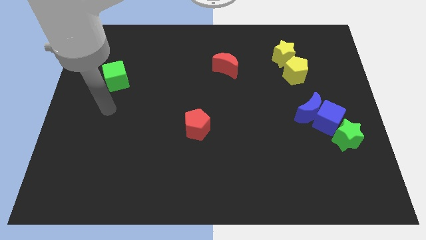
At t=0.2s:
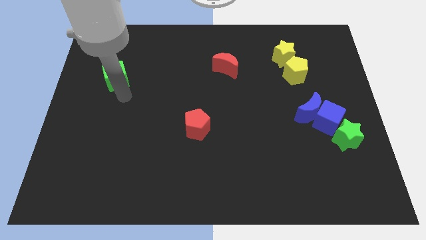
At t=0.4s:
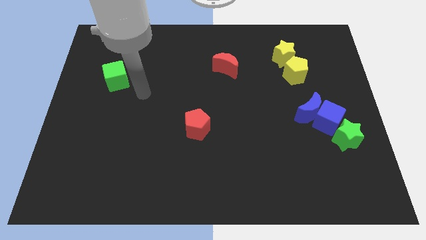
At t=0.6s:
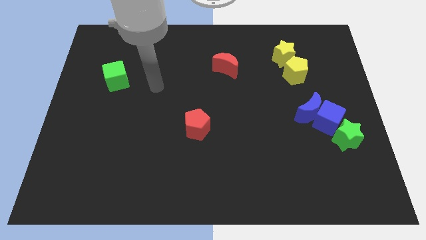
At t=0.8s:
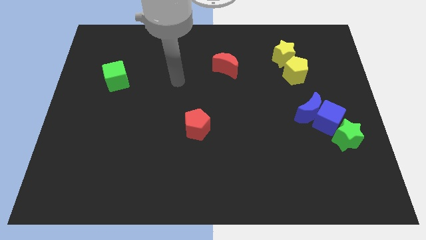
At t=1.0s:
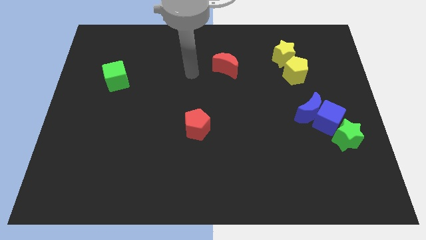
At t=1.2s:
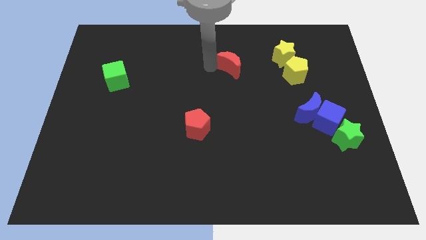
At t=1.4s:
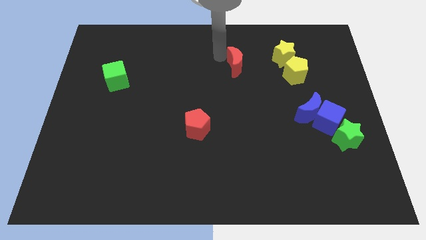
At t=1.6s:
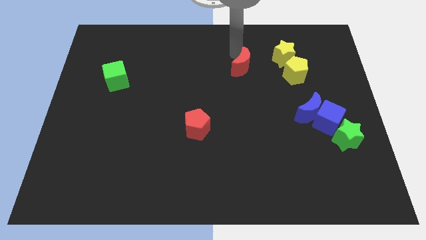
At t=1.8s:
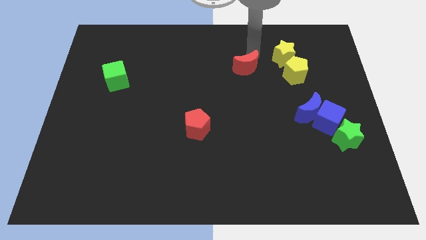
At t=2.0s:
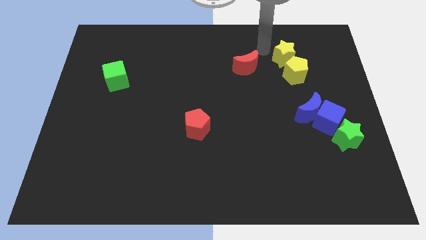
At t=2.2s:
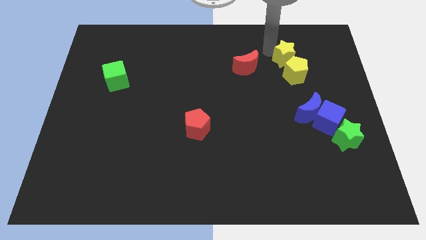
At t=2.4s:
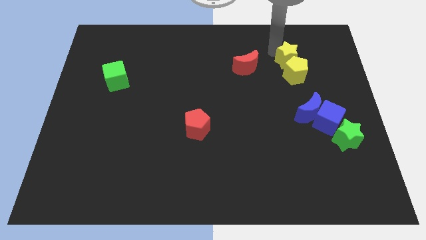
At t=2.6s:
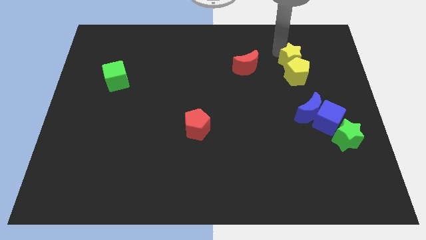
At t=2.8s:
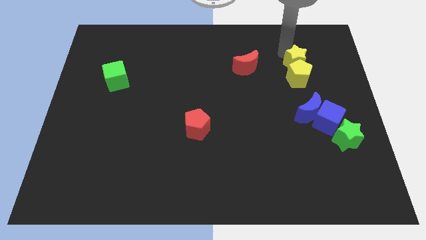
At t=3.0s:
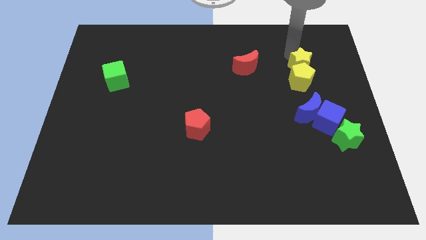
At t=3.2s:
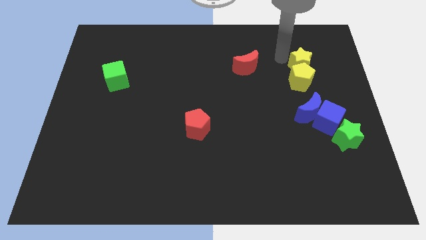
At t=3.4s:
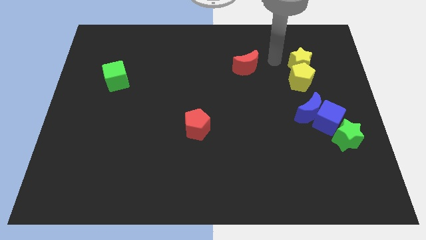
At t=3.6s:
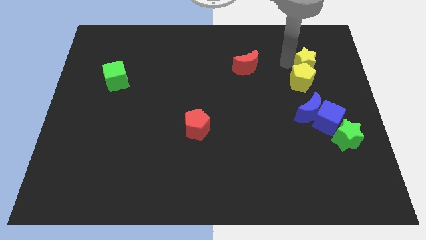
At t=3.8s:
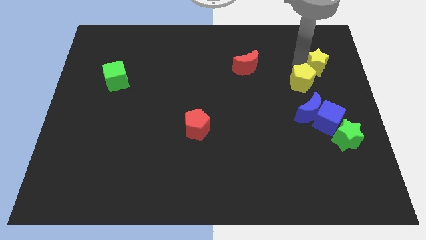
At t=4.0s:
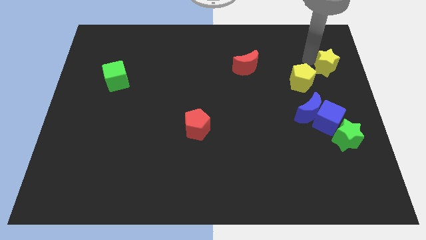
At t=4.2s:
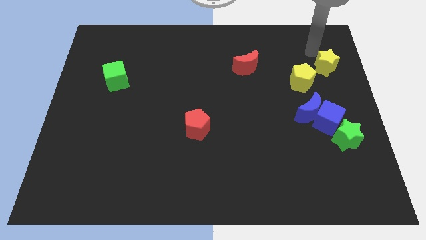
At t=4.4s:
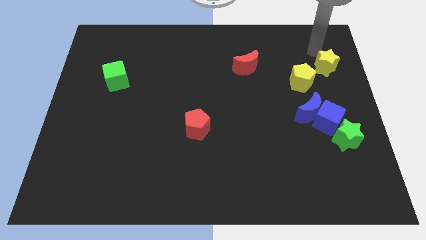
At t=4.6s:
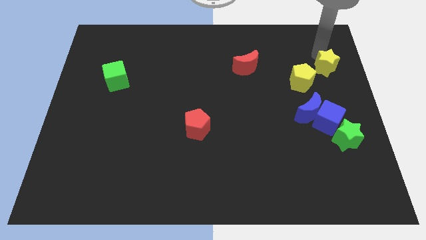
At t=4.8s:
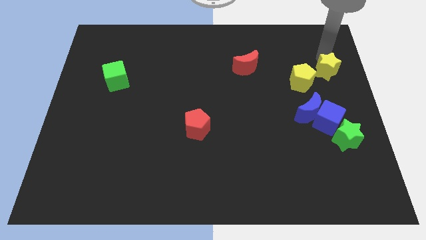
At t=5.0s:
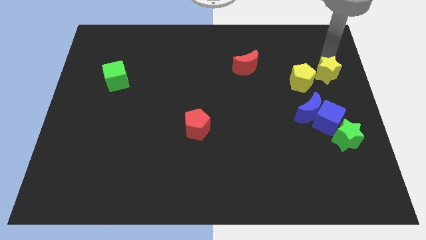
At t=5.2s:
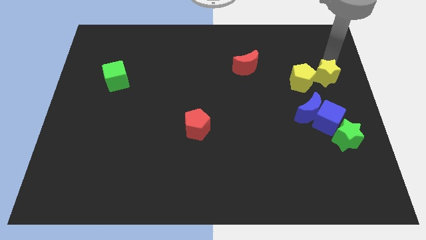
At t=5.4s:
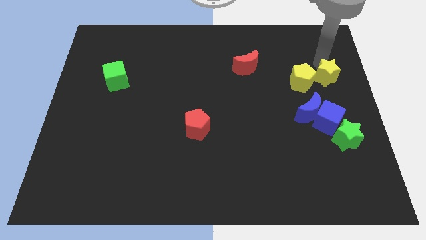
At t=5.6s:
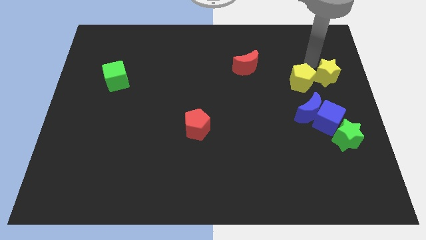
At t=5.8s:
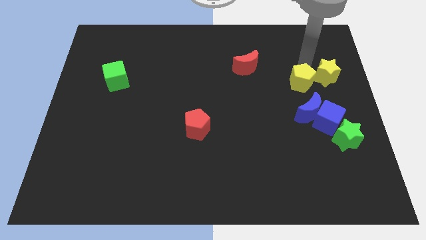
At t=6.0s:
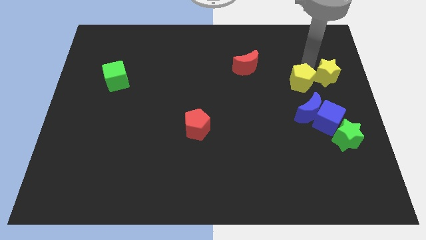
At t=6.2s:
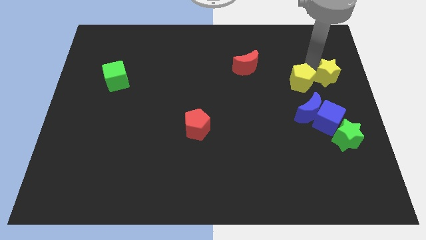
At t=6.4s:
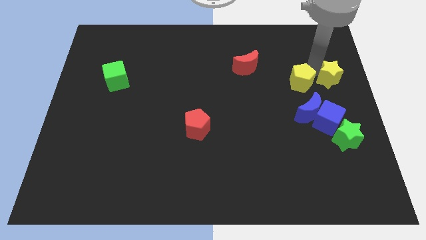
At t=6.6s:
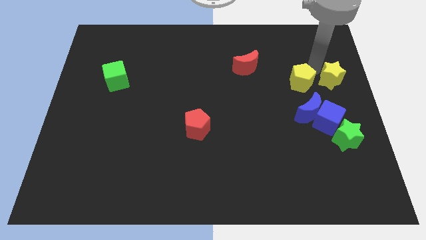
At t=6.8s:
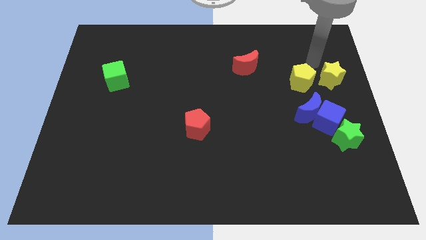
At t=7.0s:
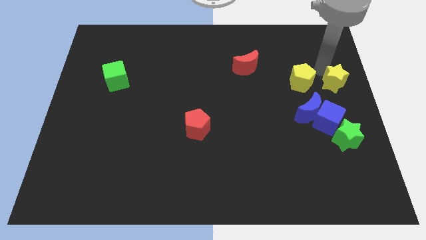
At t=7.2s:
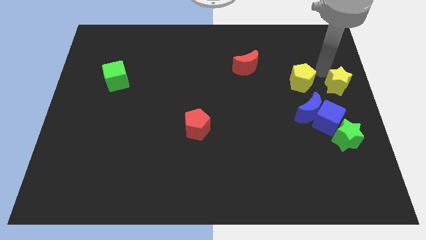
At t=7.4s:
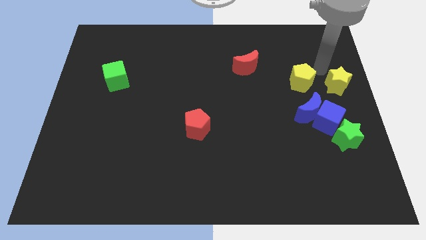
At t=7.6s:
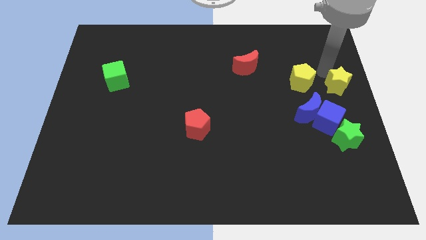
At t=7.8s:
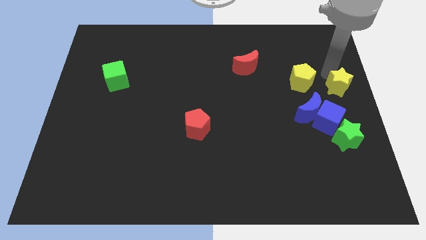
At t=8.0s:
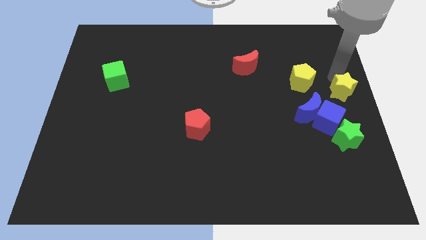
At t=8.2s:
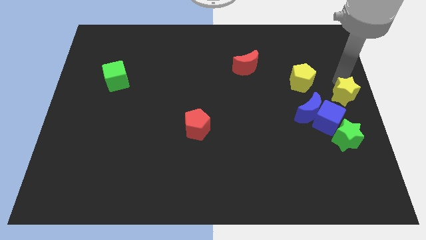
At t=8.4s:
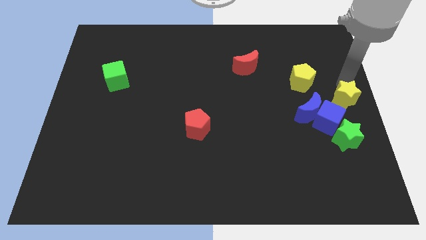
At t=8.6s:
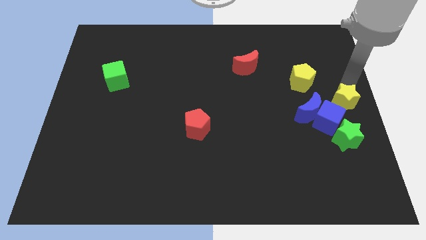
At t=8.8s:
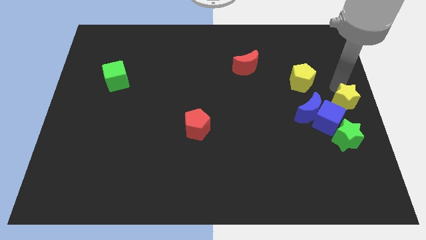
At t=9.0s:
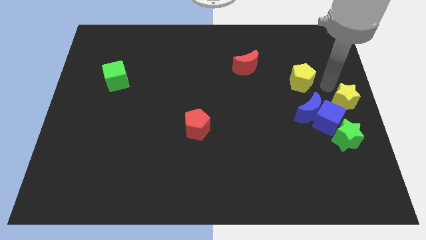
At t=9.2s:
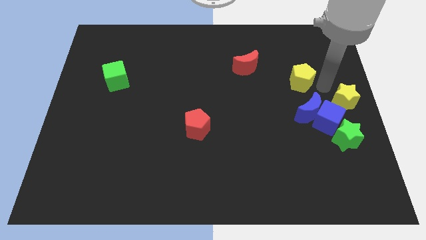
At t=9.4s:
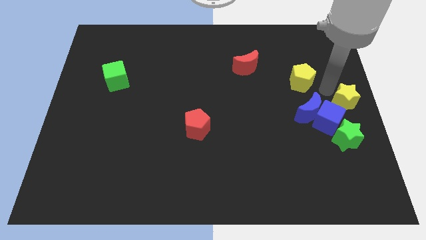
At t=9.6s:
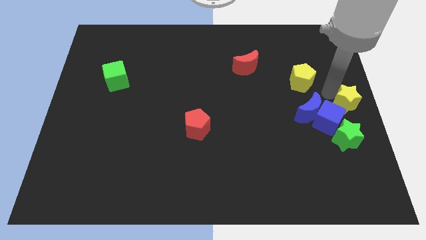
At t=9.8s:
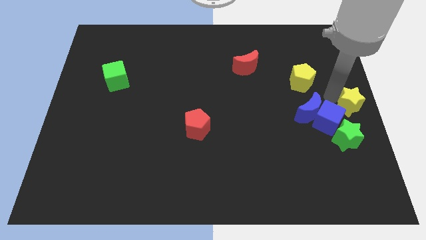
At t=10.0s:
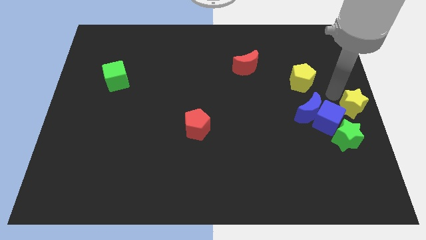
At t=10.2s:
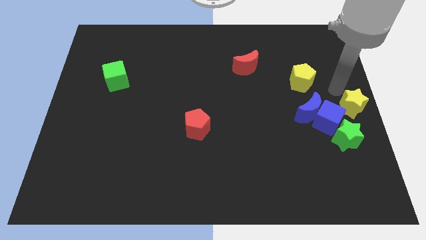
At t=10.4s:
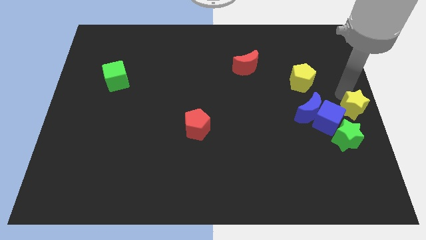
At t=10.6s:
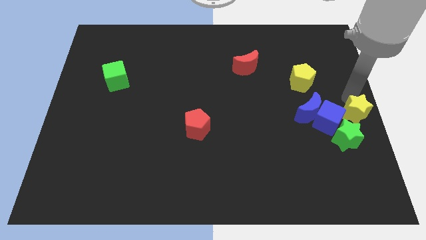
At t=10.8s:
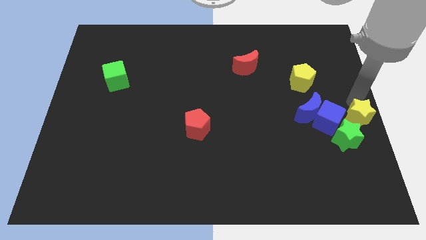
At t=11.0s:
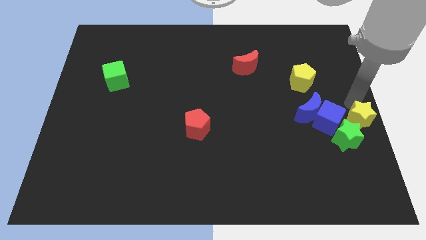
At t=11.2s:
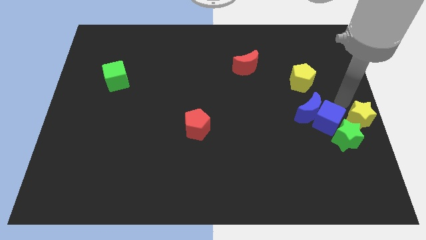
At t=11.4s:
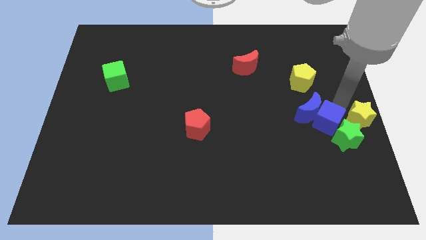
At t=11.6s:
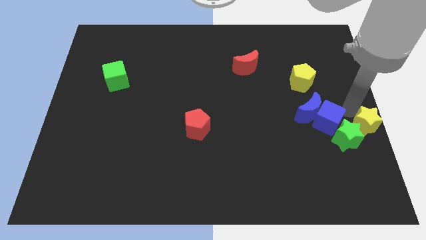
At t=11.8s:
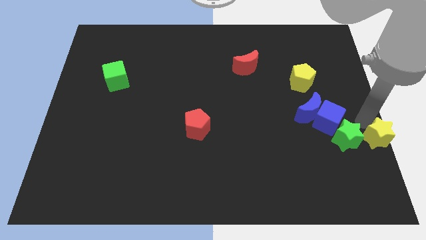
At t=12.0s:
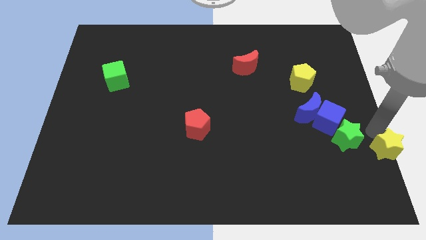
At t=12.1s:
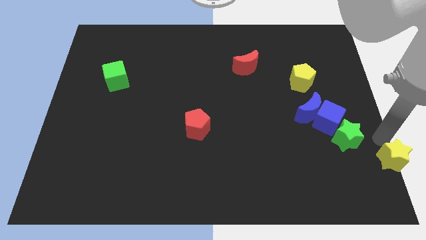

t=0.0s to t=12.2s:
put the yellow star to the lower right corner

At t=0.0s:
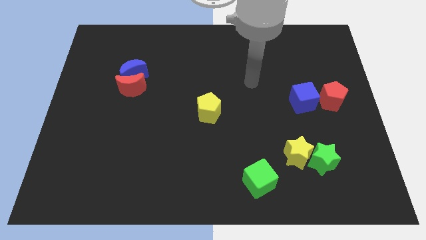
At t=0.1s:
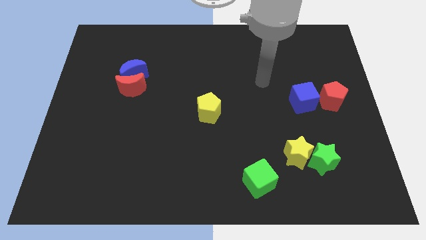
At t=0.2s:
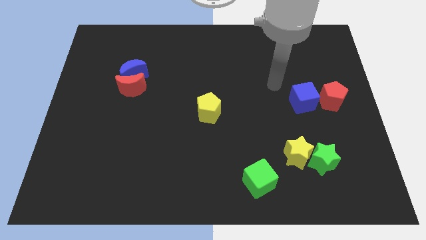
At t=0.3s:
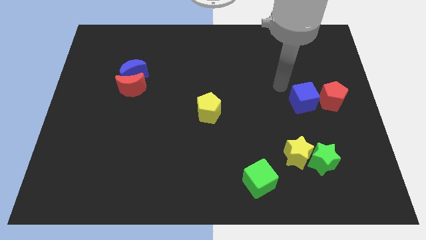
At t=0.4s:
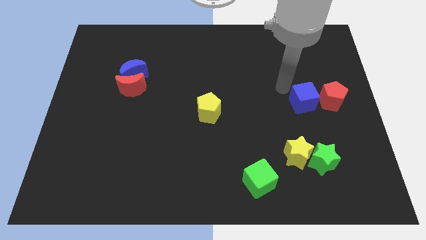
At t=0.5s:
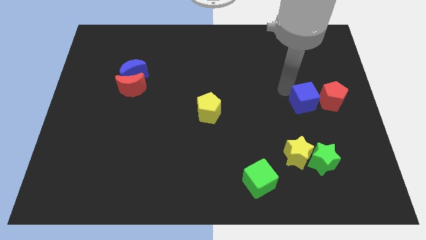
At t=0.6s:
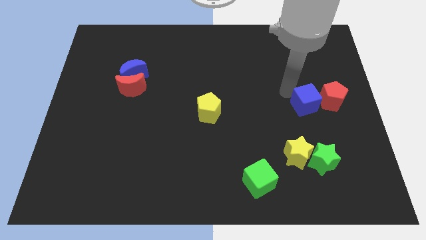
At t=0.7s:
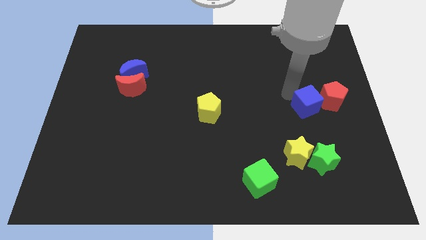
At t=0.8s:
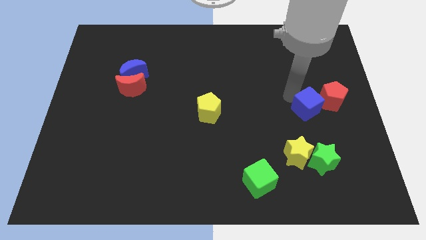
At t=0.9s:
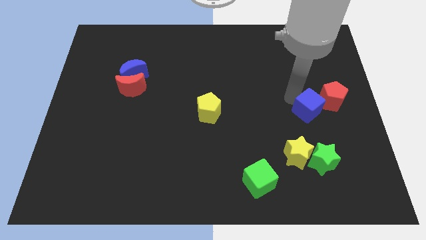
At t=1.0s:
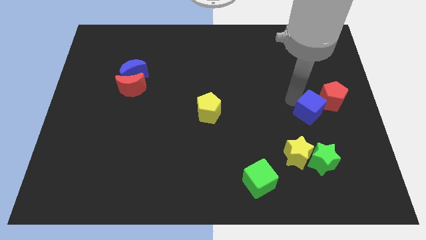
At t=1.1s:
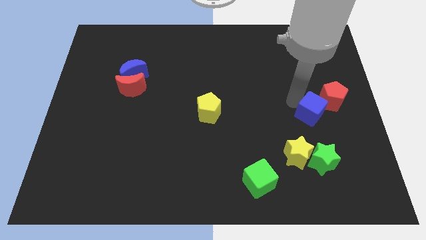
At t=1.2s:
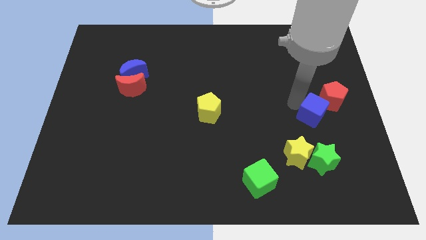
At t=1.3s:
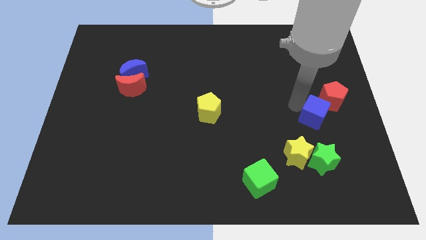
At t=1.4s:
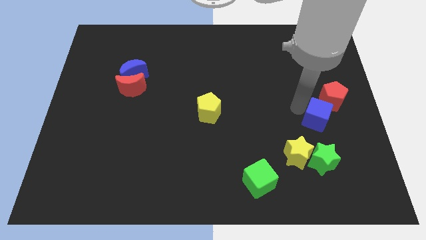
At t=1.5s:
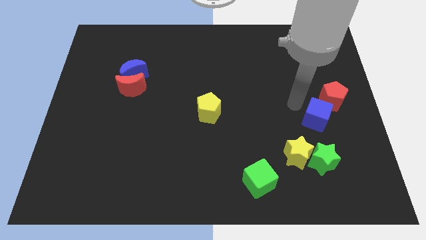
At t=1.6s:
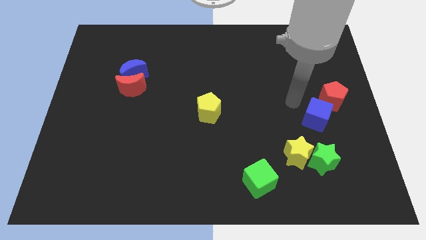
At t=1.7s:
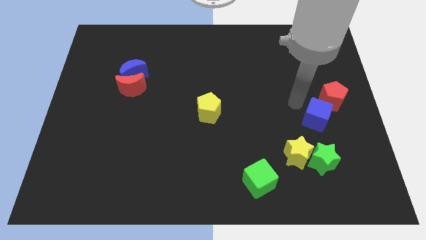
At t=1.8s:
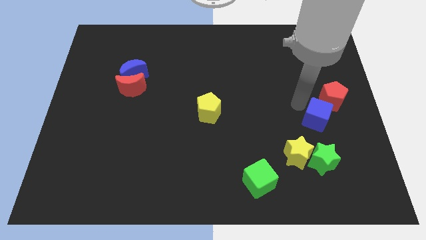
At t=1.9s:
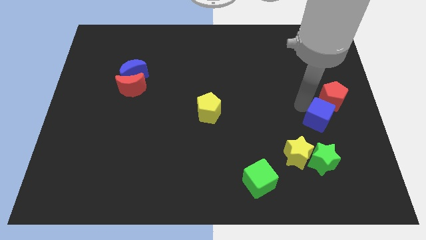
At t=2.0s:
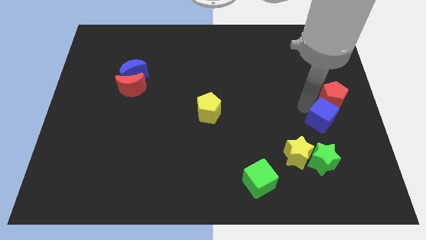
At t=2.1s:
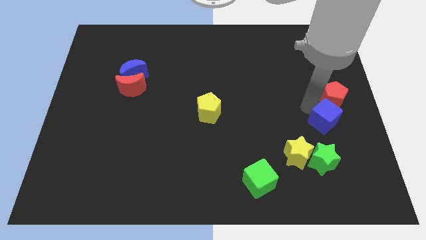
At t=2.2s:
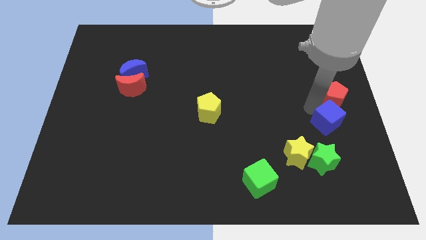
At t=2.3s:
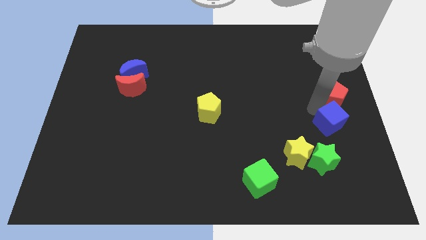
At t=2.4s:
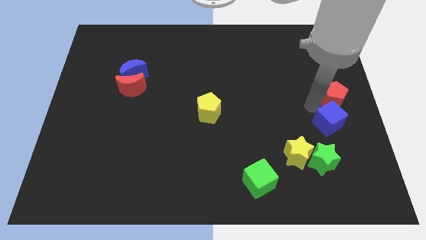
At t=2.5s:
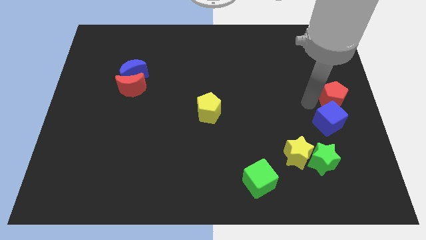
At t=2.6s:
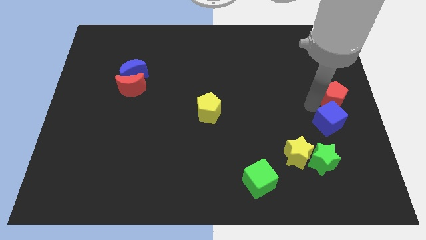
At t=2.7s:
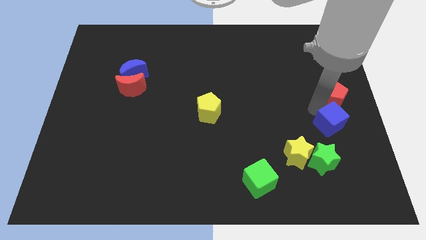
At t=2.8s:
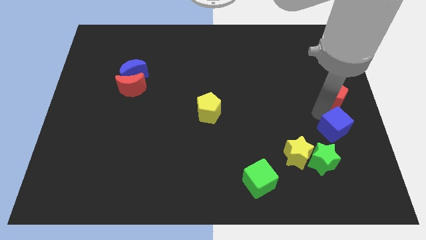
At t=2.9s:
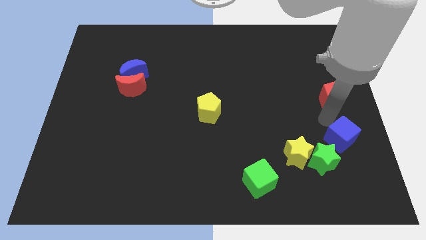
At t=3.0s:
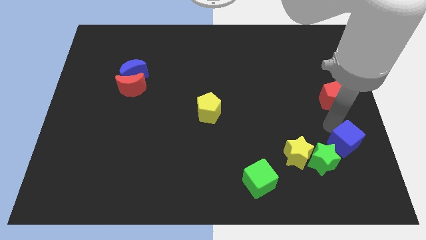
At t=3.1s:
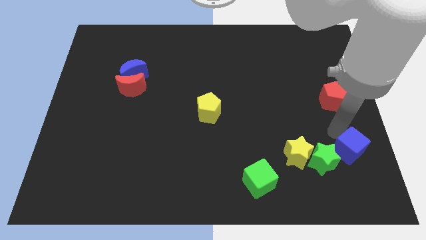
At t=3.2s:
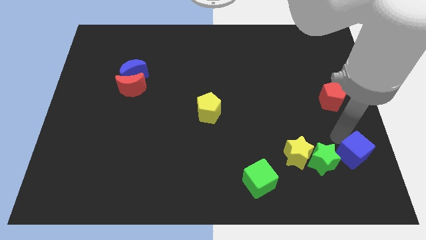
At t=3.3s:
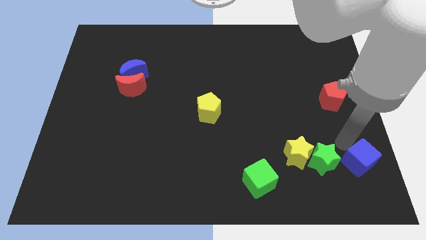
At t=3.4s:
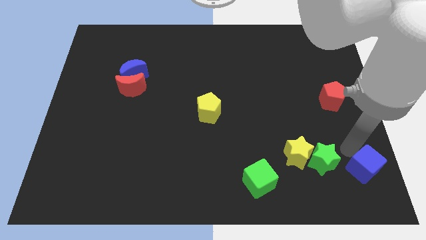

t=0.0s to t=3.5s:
push the blue cube to the lower right corner
